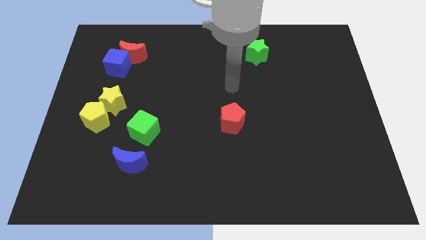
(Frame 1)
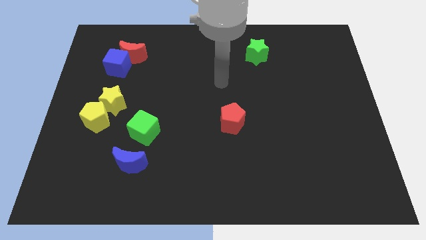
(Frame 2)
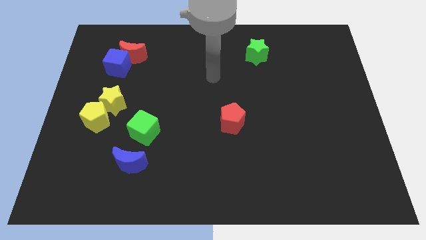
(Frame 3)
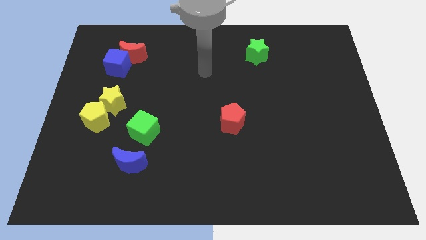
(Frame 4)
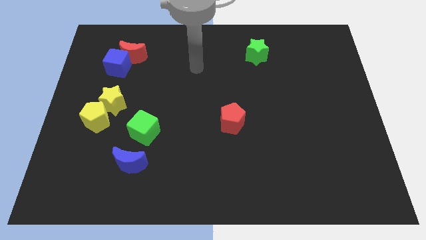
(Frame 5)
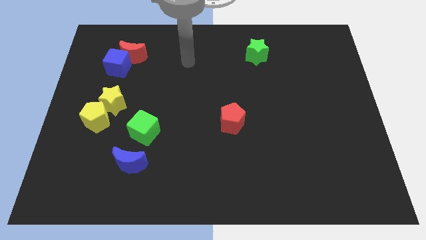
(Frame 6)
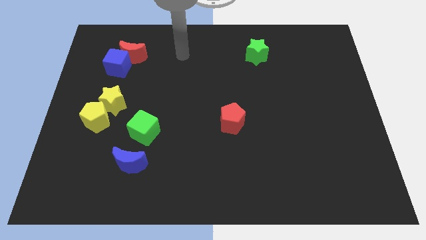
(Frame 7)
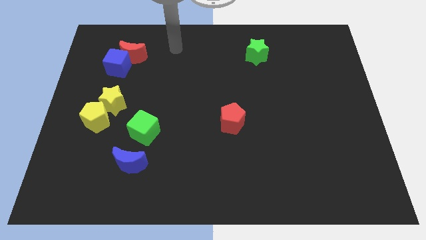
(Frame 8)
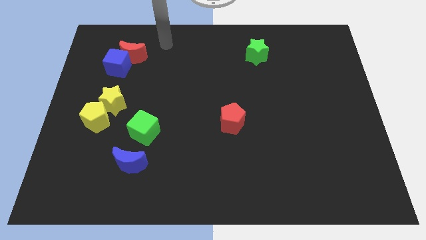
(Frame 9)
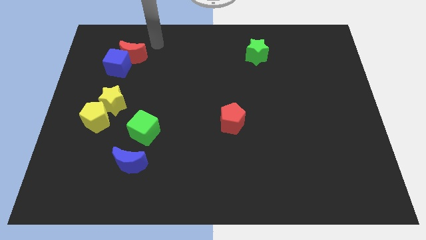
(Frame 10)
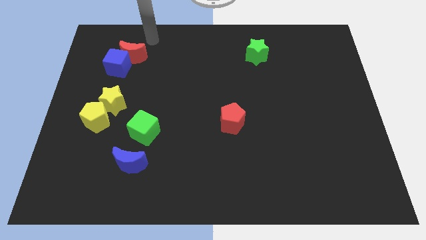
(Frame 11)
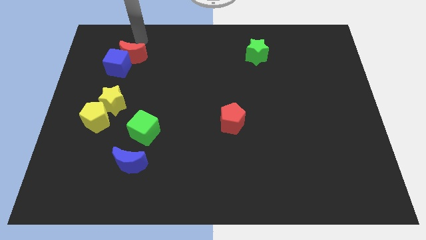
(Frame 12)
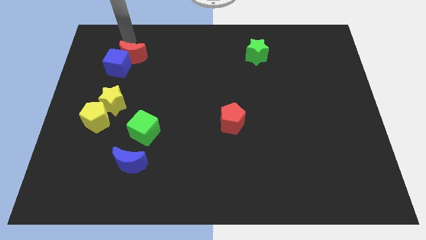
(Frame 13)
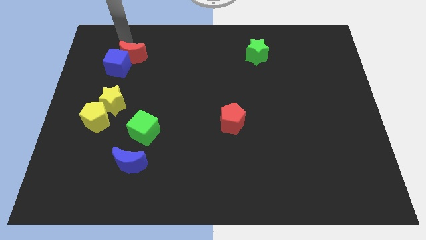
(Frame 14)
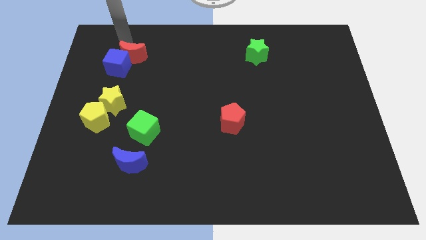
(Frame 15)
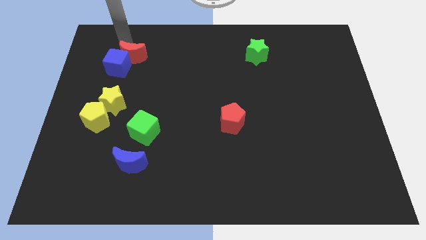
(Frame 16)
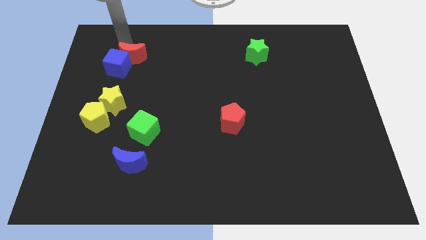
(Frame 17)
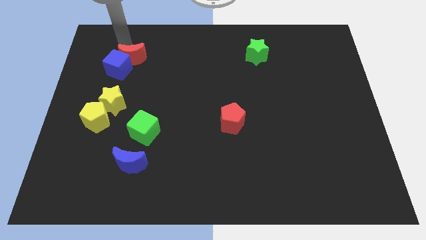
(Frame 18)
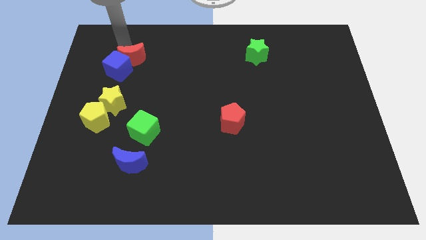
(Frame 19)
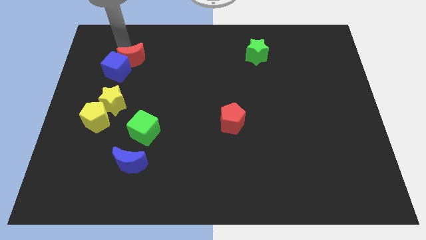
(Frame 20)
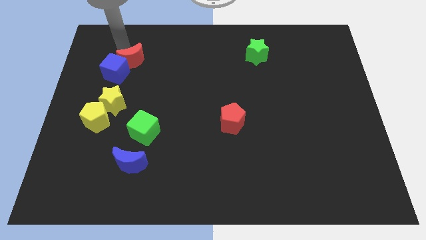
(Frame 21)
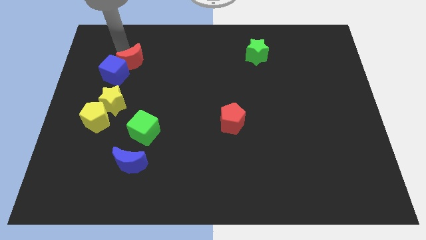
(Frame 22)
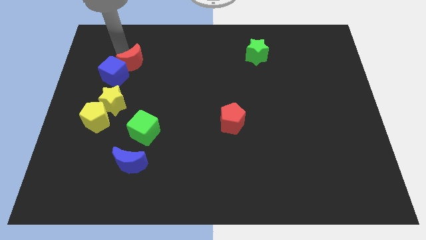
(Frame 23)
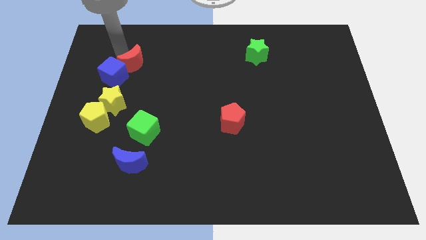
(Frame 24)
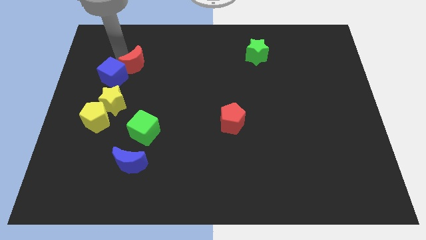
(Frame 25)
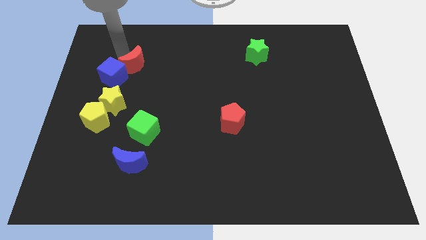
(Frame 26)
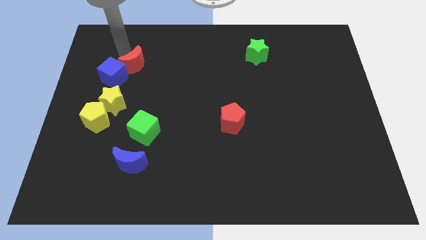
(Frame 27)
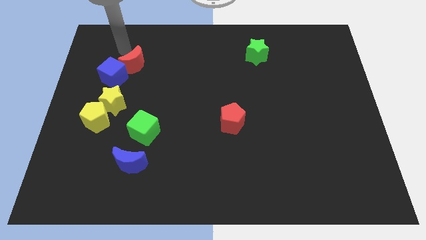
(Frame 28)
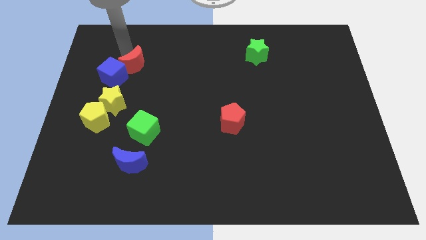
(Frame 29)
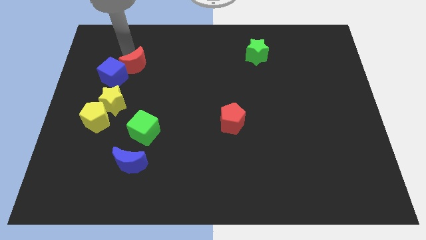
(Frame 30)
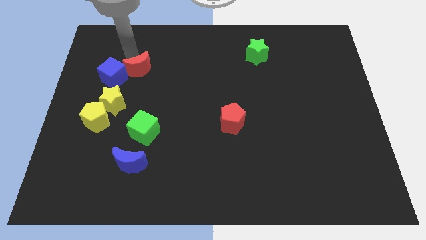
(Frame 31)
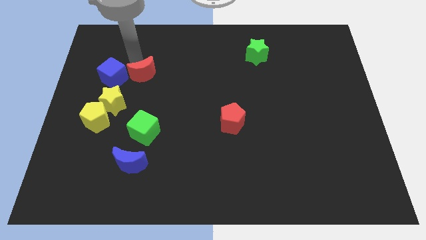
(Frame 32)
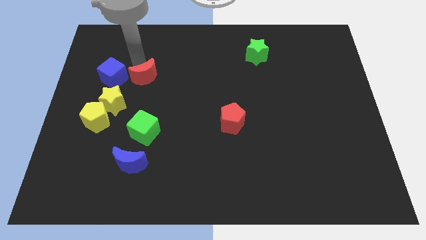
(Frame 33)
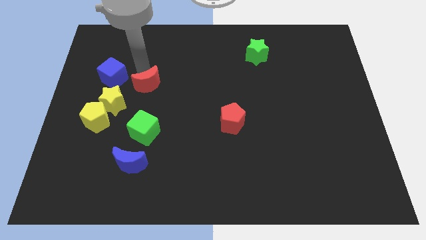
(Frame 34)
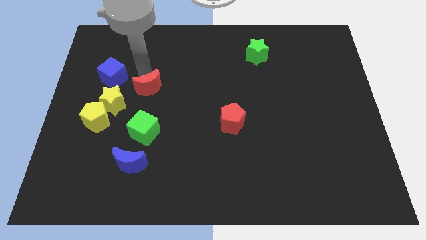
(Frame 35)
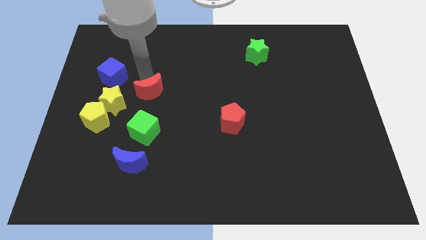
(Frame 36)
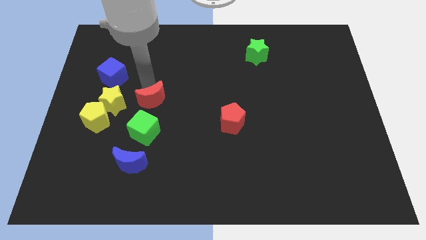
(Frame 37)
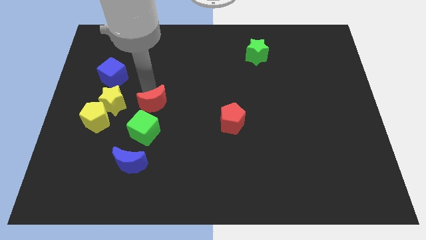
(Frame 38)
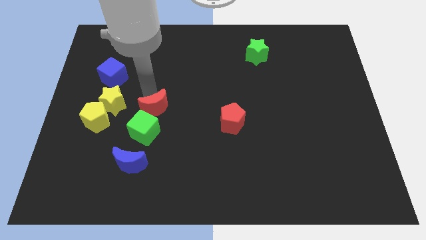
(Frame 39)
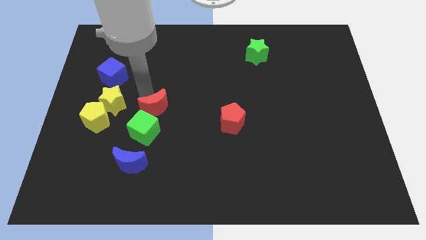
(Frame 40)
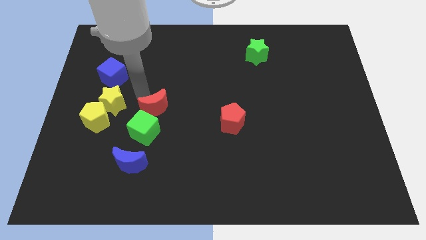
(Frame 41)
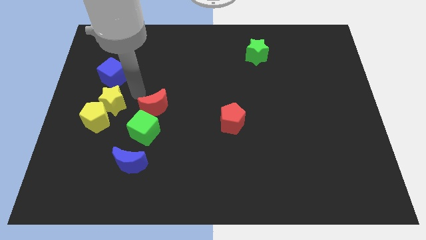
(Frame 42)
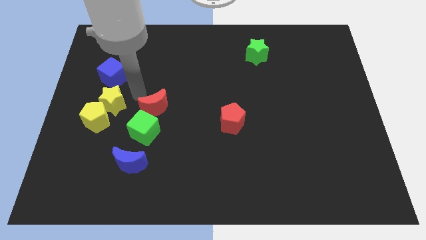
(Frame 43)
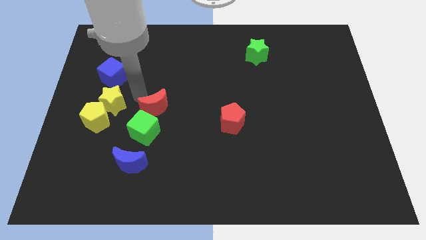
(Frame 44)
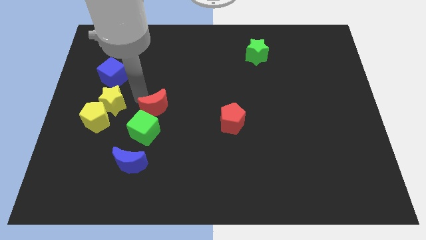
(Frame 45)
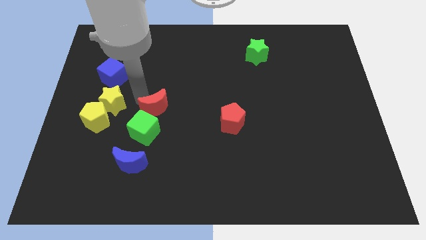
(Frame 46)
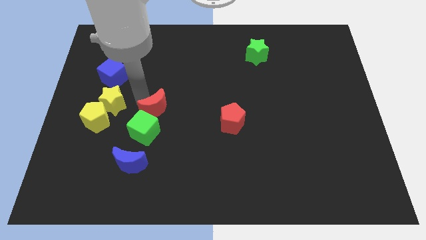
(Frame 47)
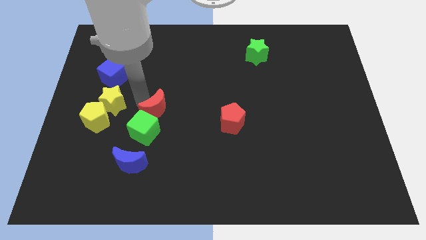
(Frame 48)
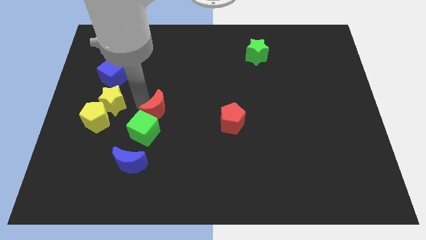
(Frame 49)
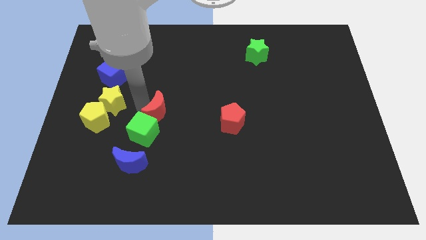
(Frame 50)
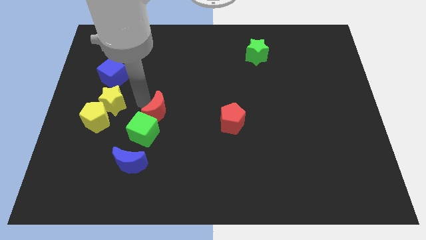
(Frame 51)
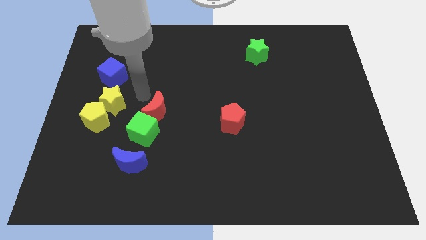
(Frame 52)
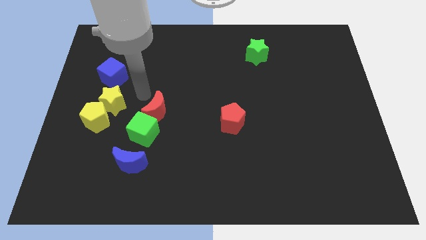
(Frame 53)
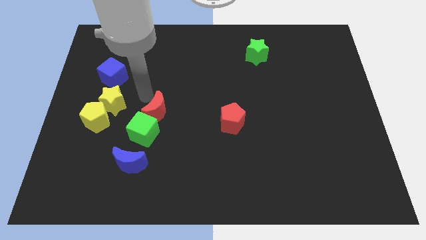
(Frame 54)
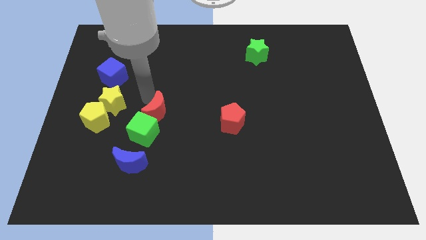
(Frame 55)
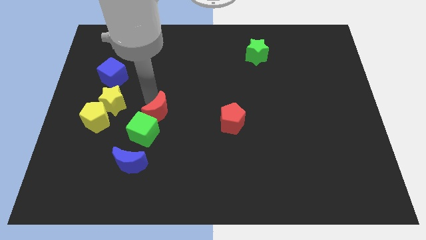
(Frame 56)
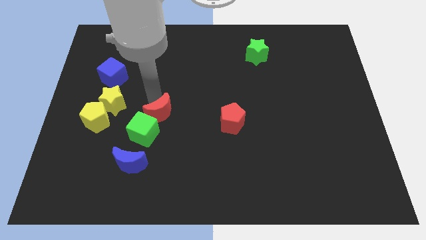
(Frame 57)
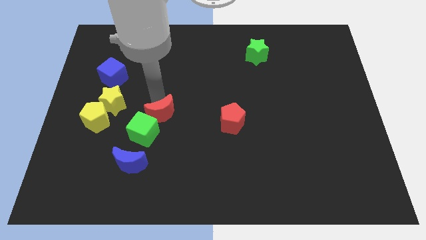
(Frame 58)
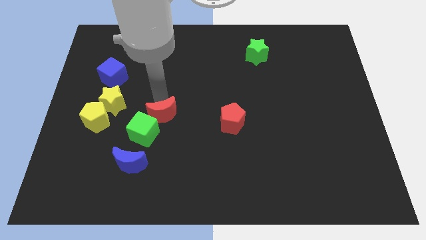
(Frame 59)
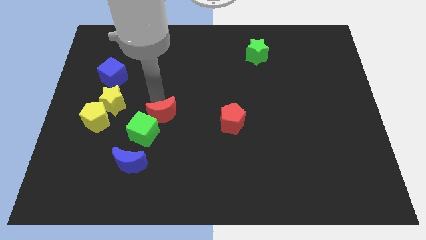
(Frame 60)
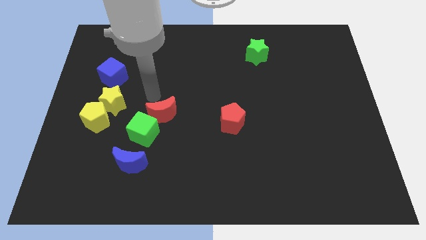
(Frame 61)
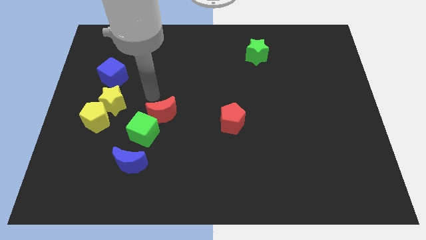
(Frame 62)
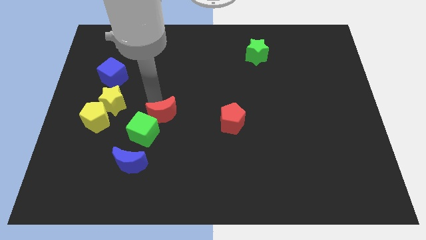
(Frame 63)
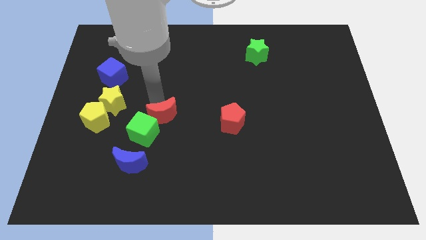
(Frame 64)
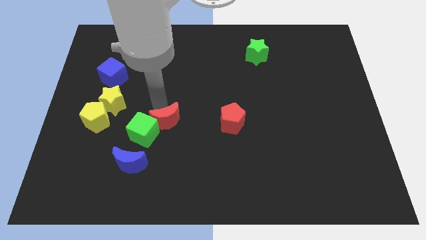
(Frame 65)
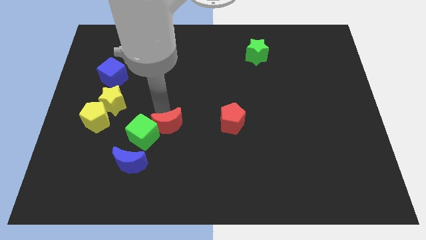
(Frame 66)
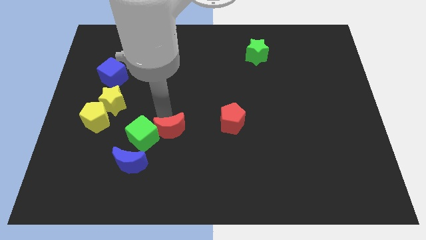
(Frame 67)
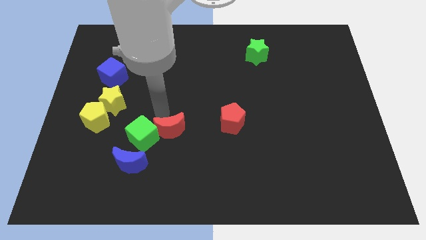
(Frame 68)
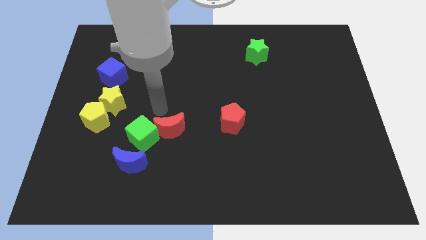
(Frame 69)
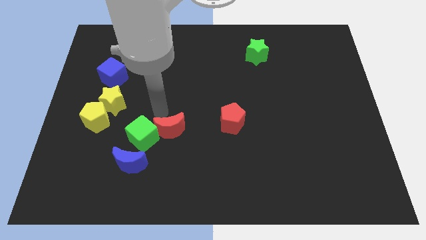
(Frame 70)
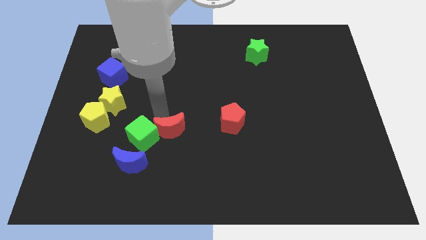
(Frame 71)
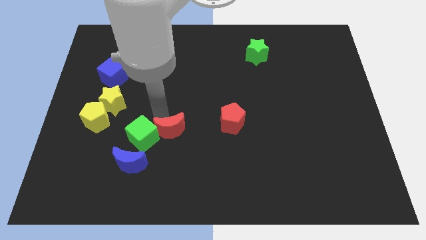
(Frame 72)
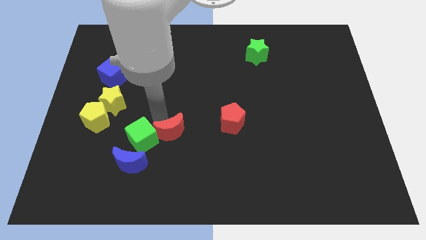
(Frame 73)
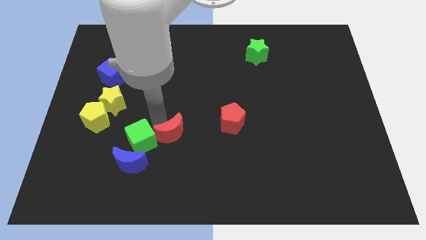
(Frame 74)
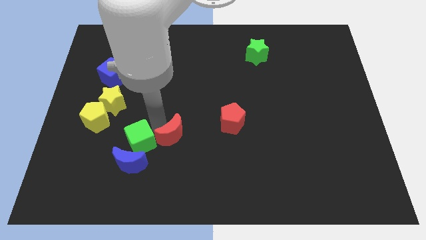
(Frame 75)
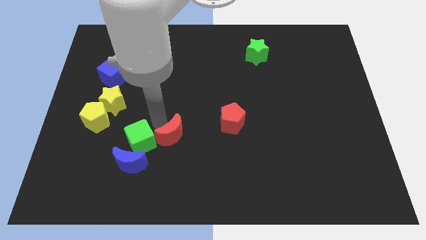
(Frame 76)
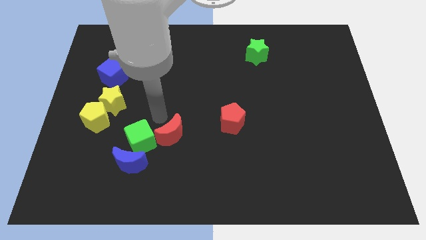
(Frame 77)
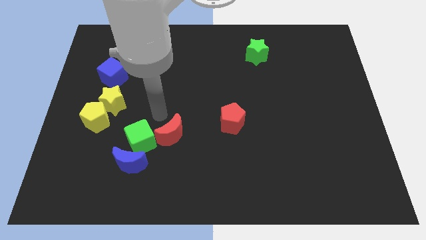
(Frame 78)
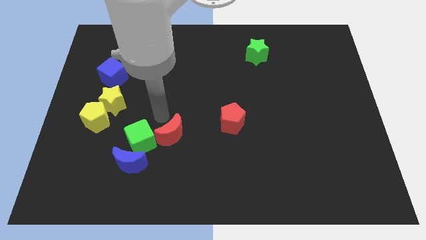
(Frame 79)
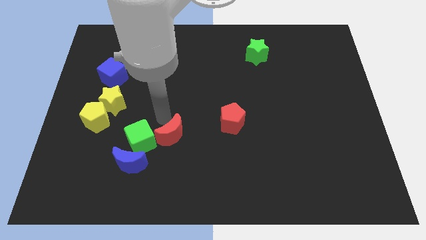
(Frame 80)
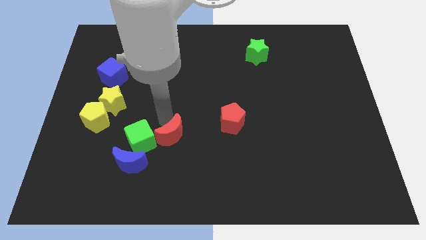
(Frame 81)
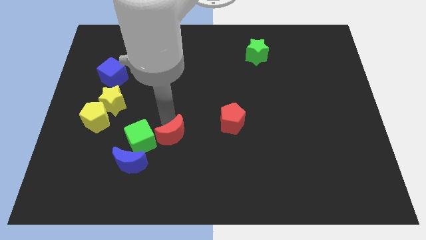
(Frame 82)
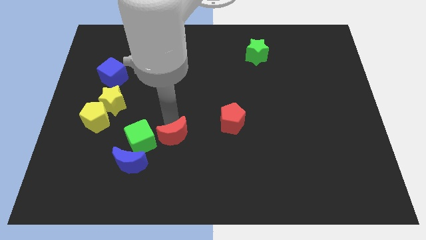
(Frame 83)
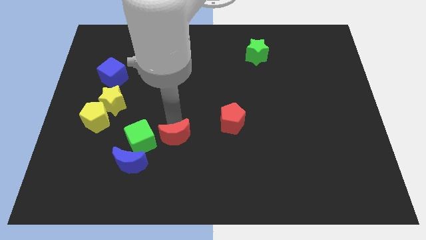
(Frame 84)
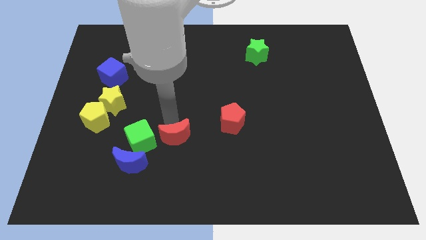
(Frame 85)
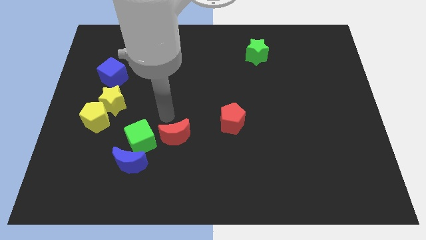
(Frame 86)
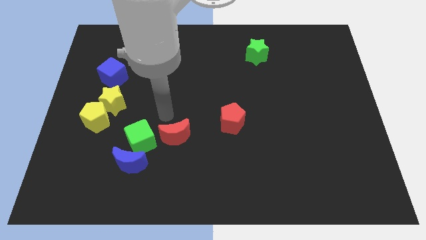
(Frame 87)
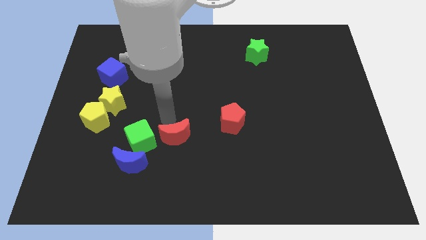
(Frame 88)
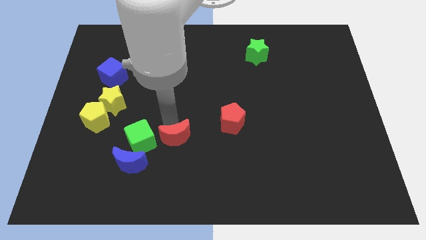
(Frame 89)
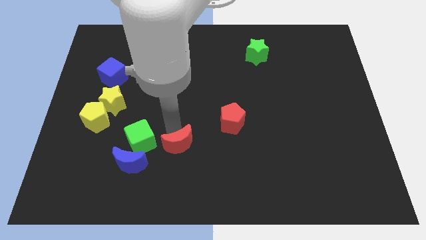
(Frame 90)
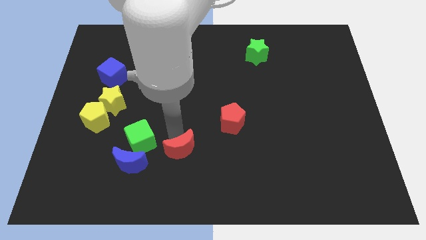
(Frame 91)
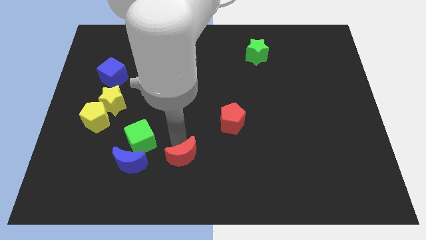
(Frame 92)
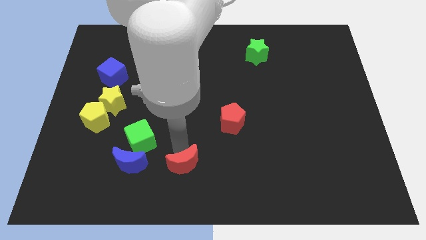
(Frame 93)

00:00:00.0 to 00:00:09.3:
move the red moon to the bottom side
